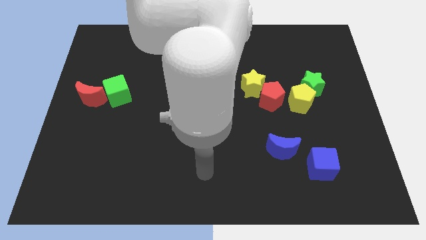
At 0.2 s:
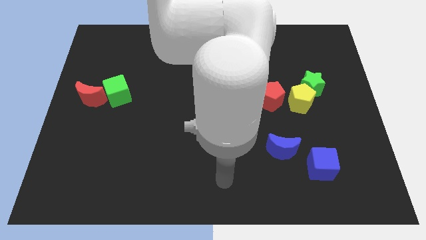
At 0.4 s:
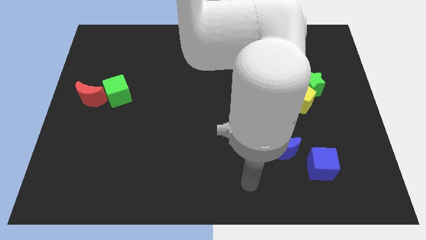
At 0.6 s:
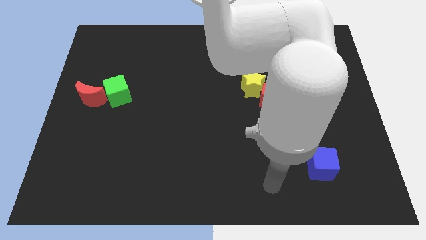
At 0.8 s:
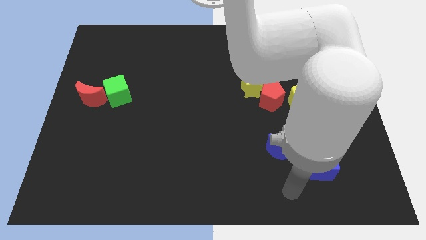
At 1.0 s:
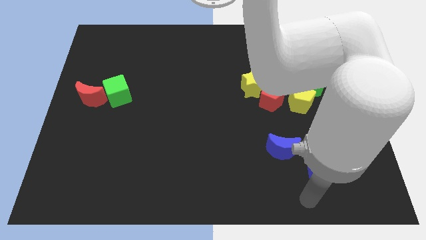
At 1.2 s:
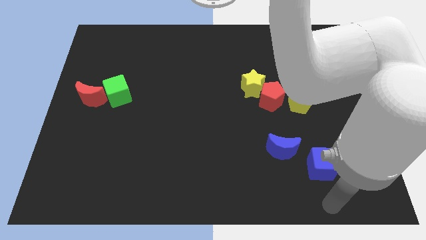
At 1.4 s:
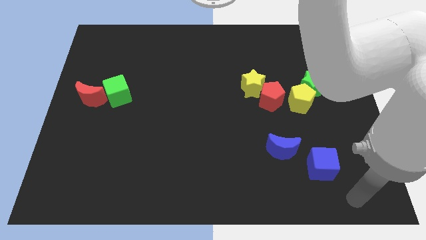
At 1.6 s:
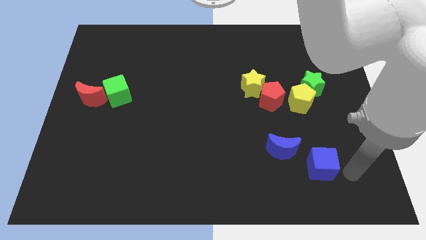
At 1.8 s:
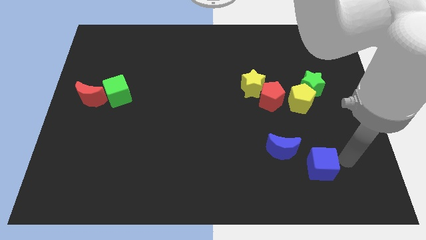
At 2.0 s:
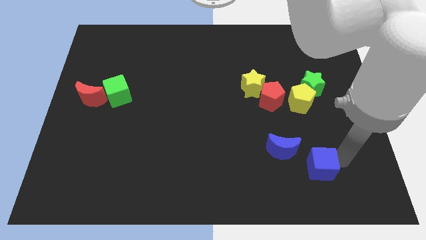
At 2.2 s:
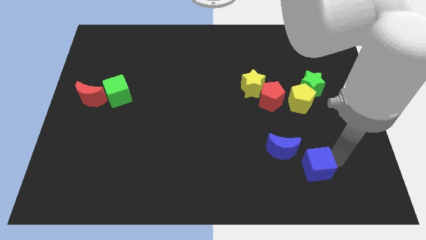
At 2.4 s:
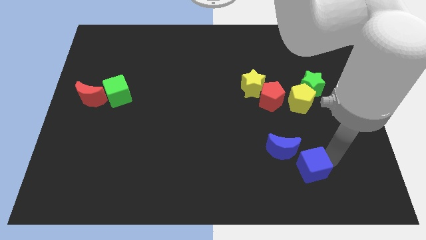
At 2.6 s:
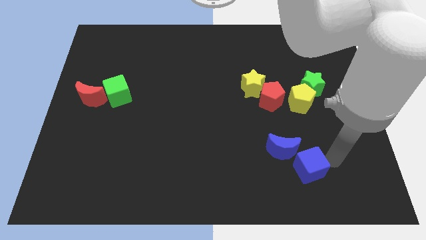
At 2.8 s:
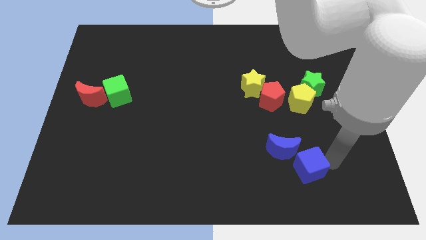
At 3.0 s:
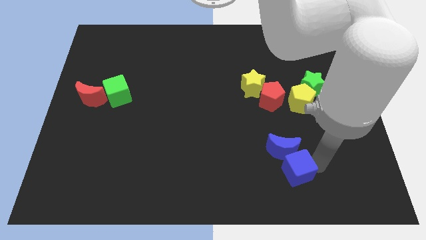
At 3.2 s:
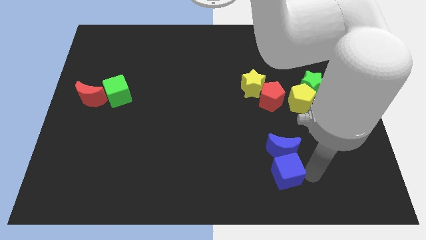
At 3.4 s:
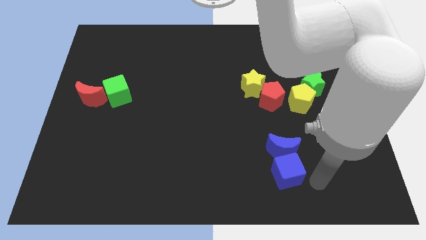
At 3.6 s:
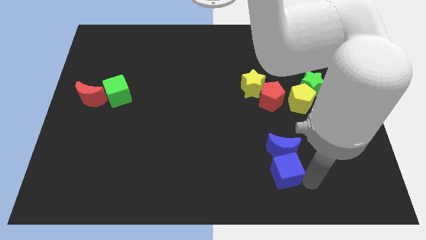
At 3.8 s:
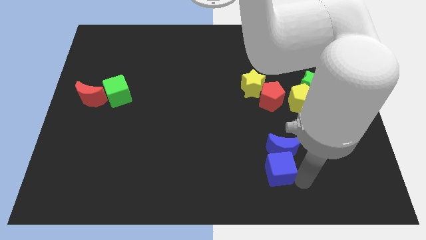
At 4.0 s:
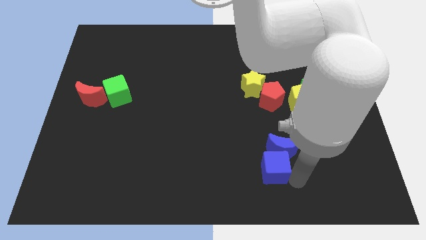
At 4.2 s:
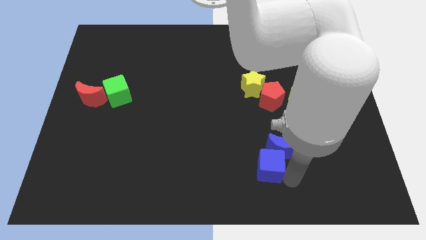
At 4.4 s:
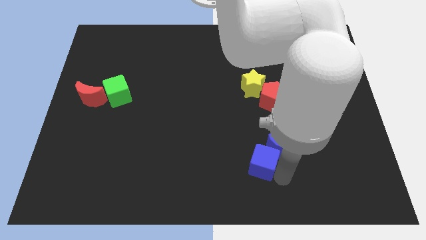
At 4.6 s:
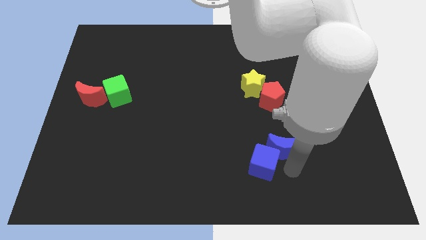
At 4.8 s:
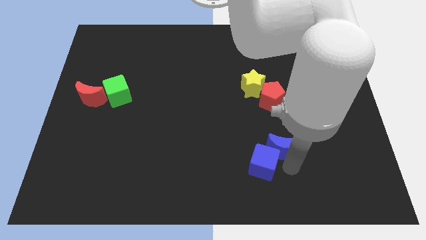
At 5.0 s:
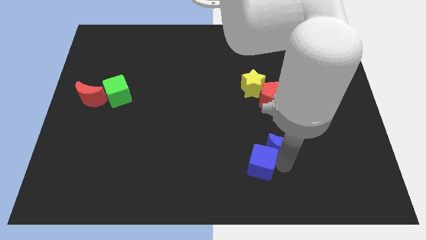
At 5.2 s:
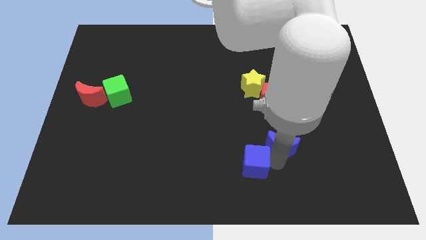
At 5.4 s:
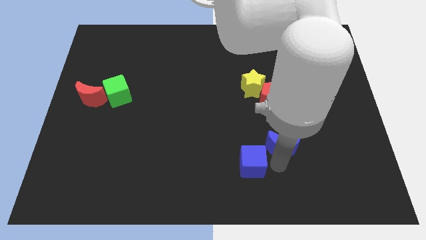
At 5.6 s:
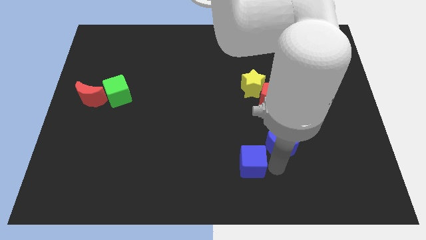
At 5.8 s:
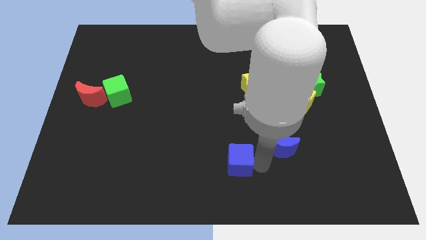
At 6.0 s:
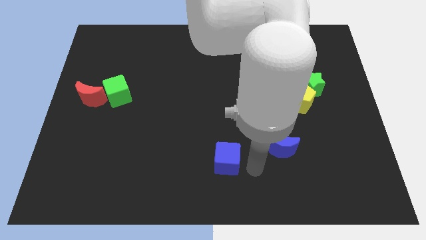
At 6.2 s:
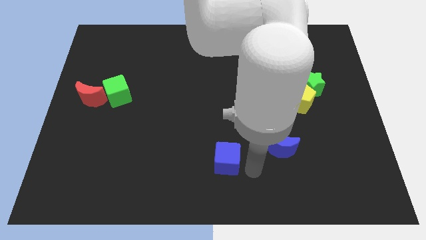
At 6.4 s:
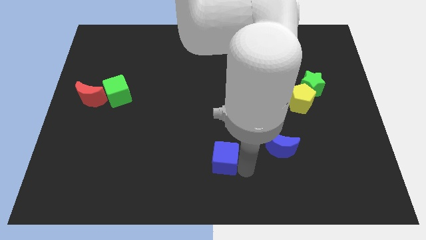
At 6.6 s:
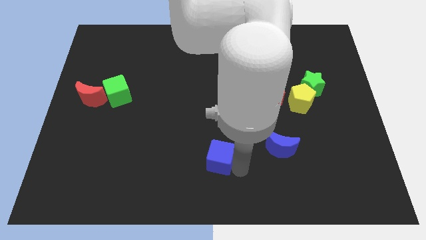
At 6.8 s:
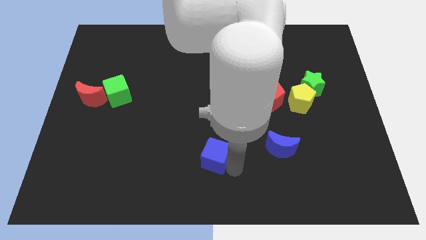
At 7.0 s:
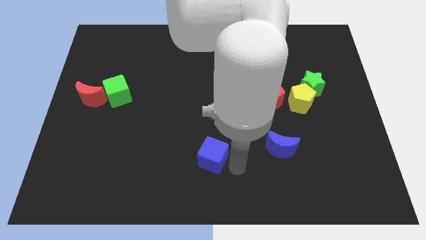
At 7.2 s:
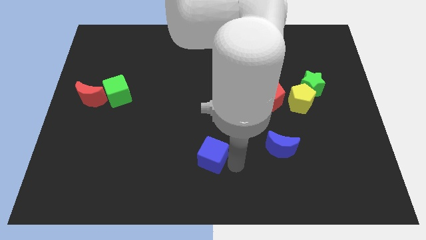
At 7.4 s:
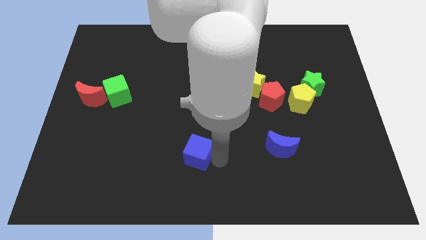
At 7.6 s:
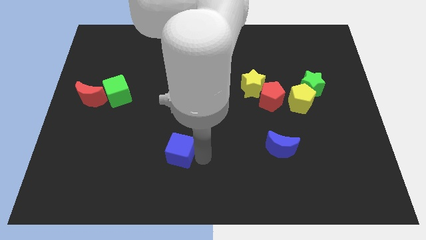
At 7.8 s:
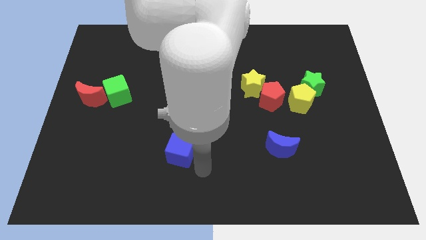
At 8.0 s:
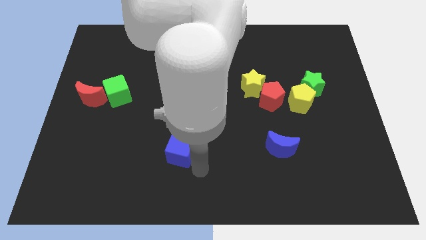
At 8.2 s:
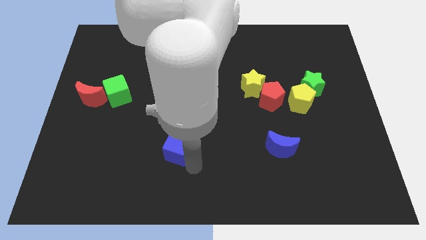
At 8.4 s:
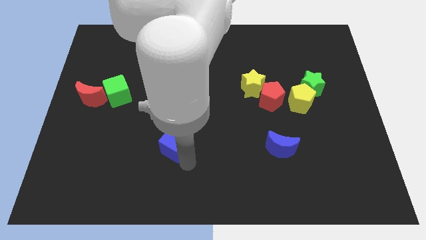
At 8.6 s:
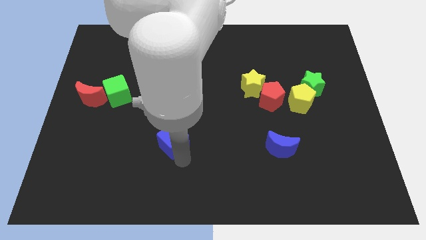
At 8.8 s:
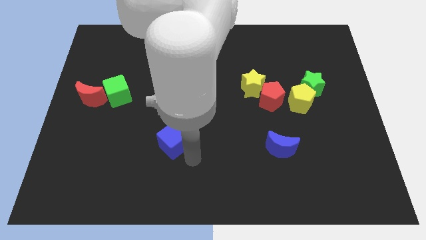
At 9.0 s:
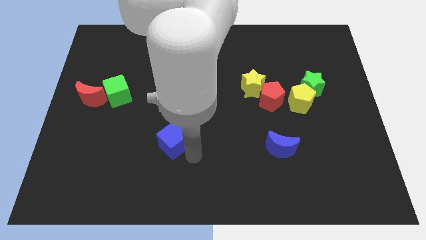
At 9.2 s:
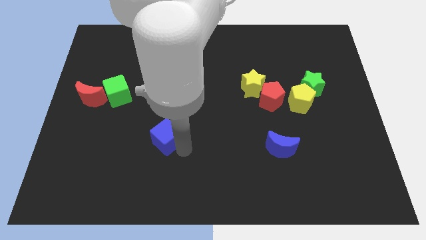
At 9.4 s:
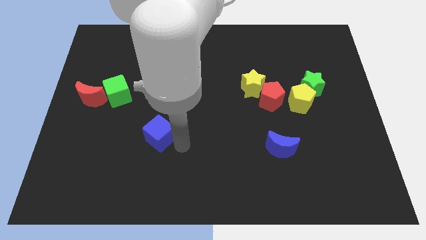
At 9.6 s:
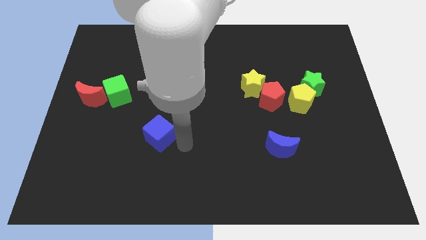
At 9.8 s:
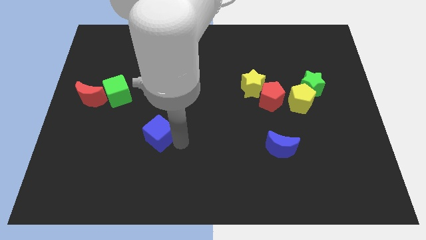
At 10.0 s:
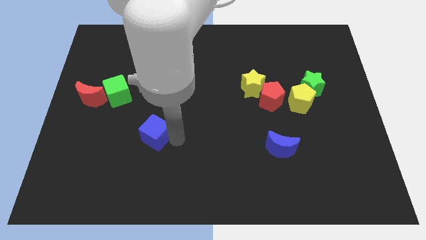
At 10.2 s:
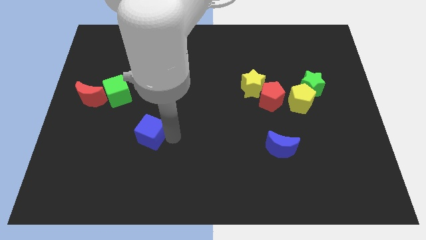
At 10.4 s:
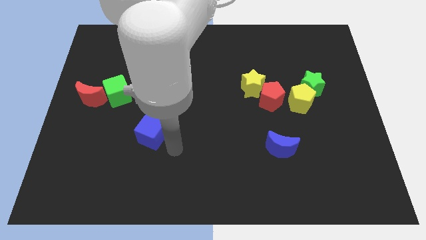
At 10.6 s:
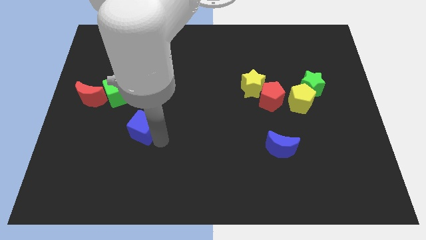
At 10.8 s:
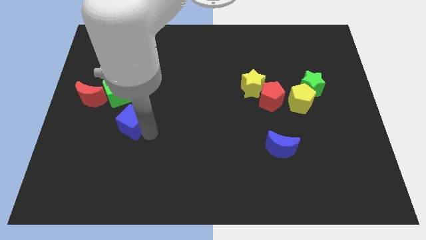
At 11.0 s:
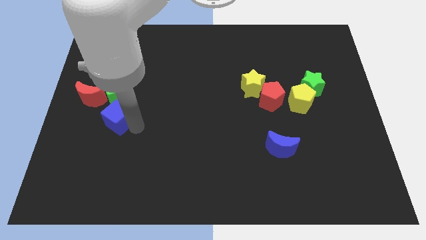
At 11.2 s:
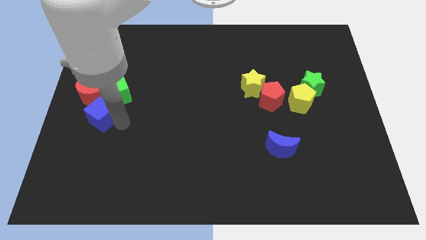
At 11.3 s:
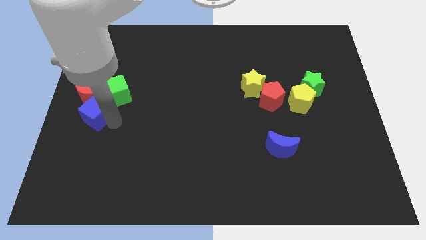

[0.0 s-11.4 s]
slide the blue cube close to the red moon

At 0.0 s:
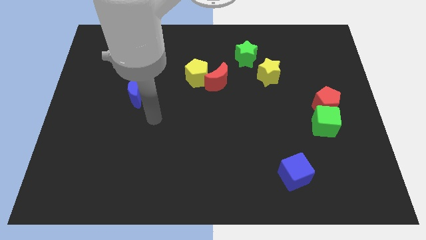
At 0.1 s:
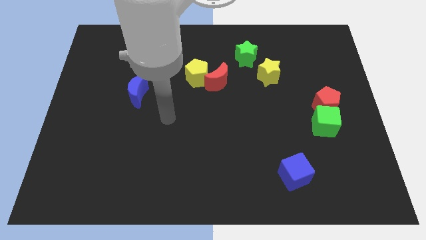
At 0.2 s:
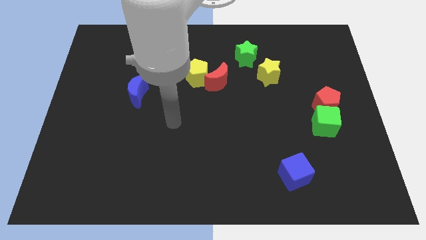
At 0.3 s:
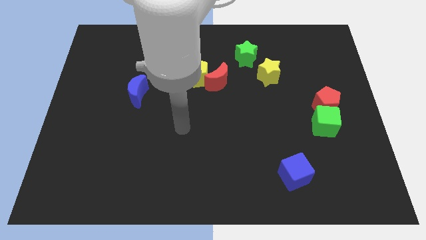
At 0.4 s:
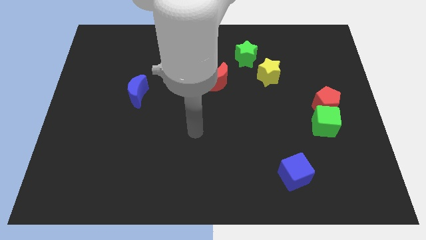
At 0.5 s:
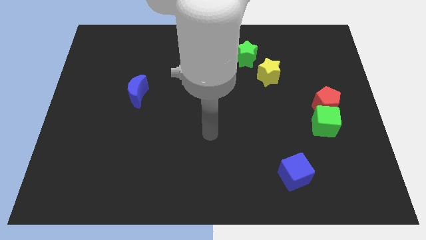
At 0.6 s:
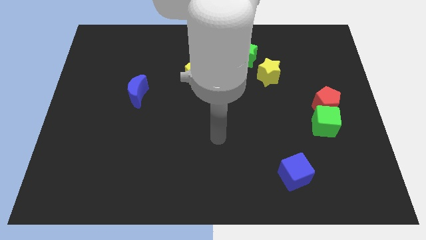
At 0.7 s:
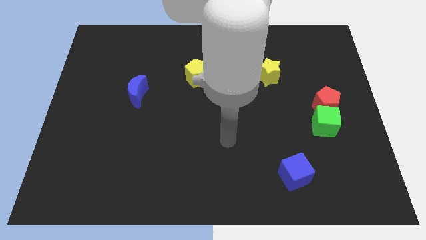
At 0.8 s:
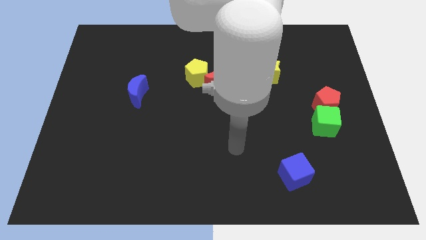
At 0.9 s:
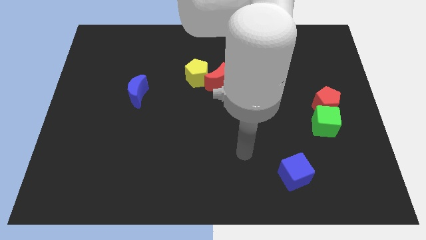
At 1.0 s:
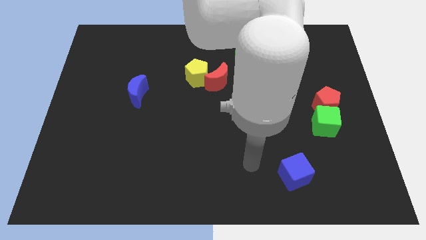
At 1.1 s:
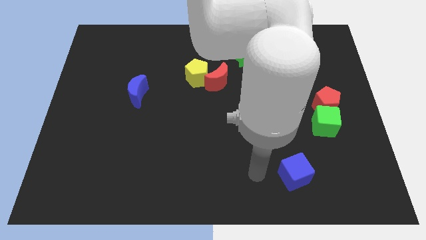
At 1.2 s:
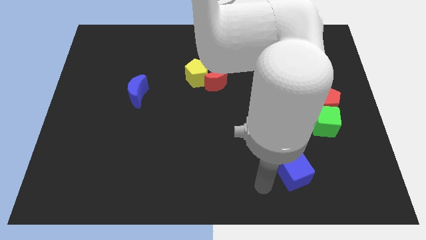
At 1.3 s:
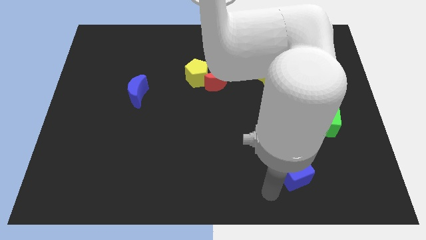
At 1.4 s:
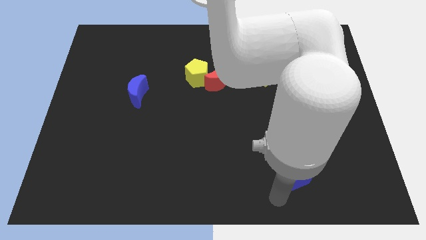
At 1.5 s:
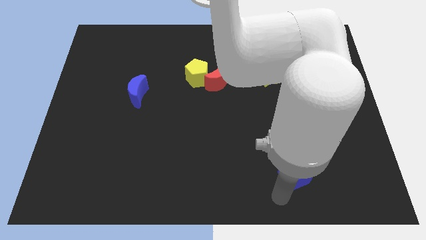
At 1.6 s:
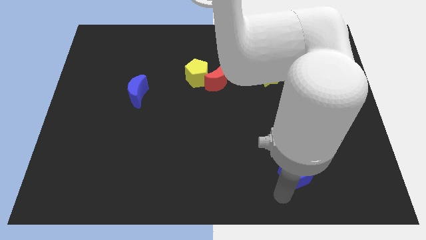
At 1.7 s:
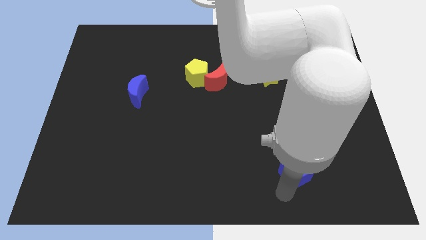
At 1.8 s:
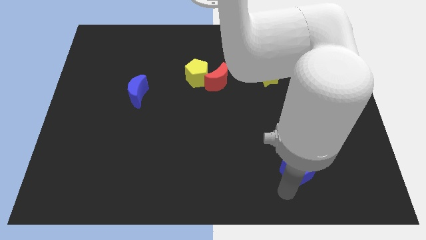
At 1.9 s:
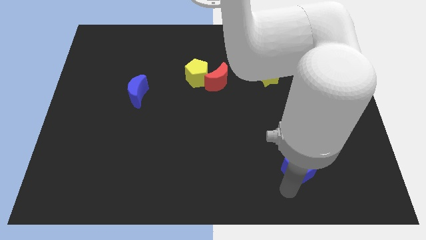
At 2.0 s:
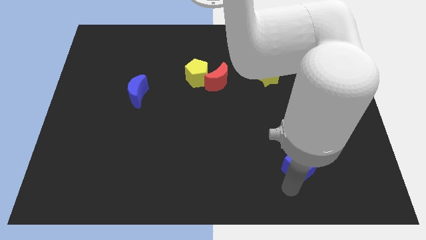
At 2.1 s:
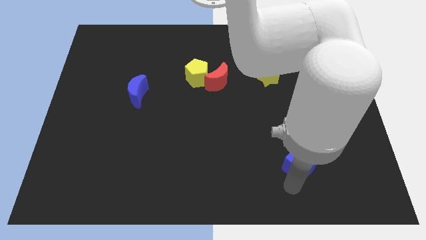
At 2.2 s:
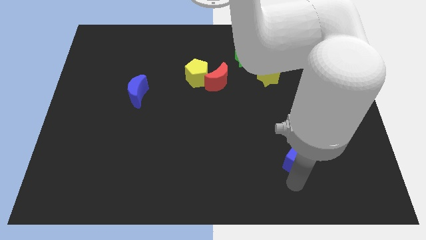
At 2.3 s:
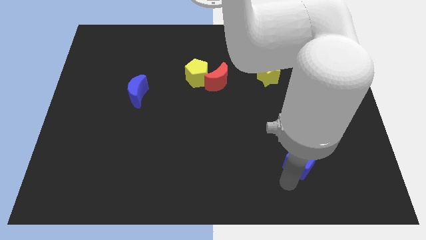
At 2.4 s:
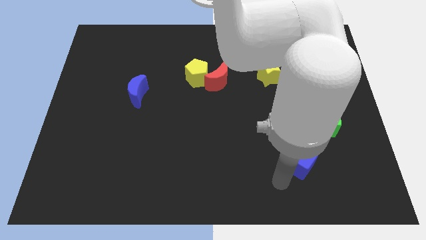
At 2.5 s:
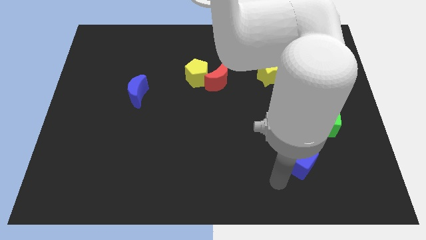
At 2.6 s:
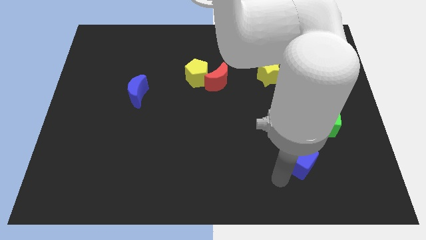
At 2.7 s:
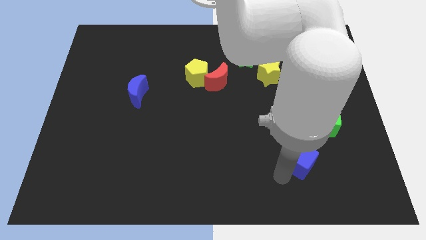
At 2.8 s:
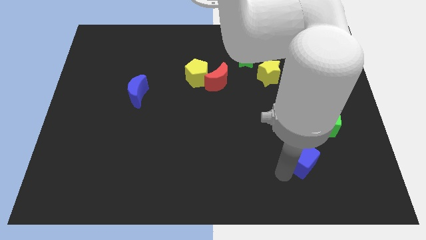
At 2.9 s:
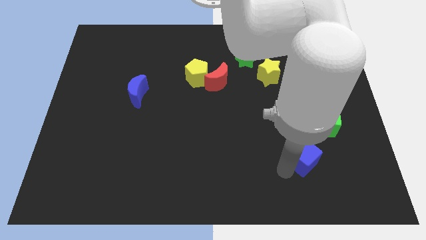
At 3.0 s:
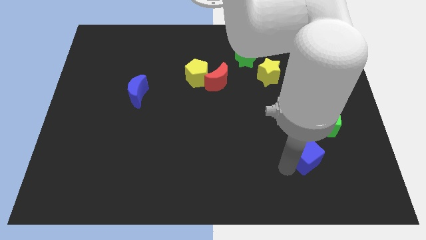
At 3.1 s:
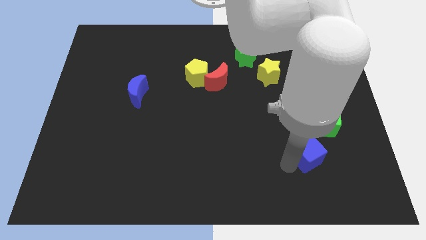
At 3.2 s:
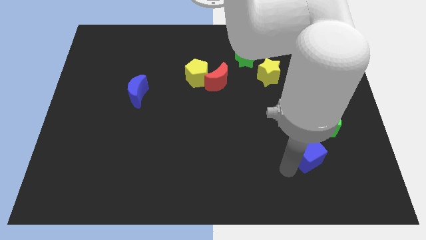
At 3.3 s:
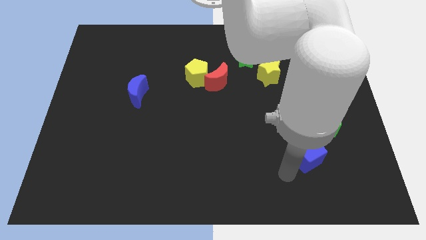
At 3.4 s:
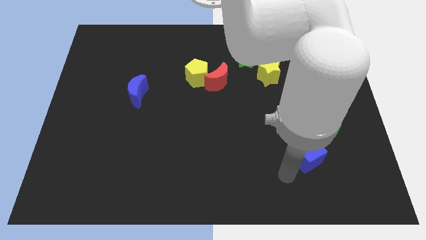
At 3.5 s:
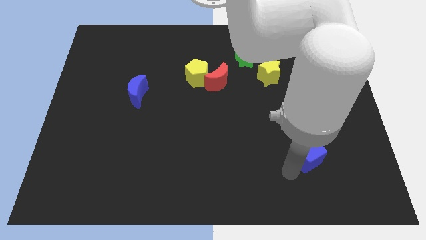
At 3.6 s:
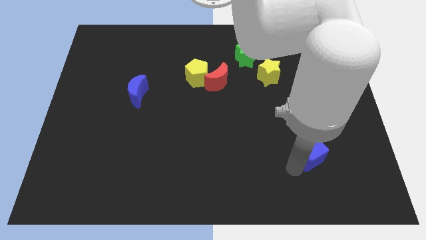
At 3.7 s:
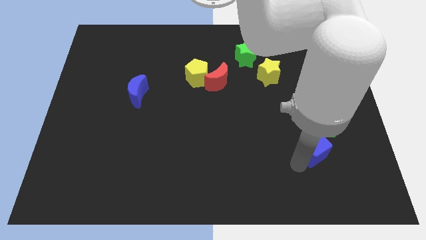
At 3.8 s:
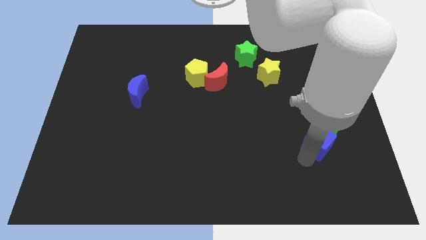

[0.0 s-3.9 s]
move the blue cube to the green cube
